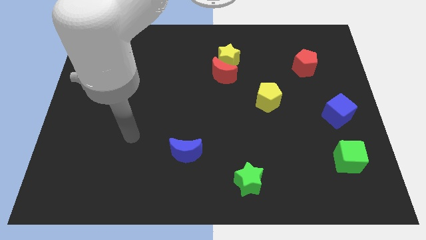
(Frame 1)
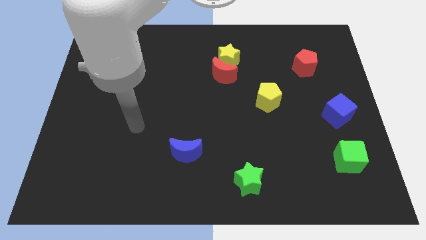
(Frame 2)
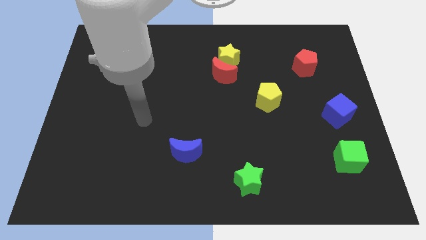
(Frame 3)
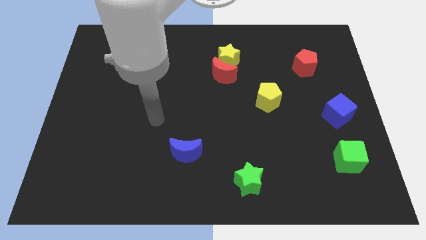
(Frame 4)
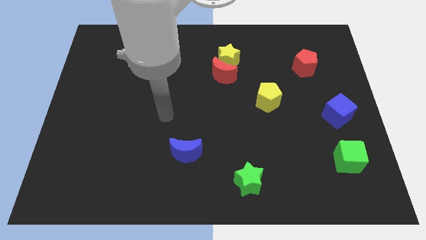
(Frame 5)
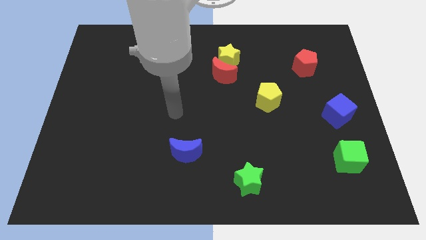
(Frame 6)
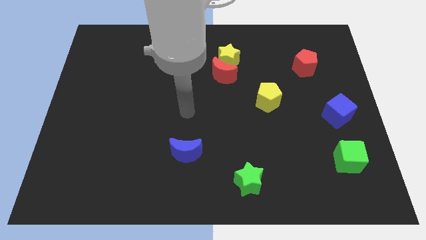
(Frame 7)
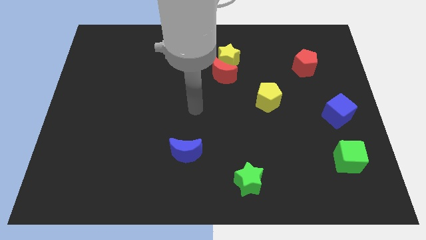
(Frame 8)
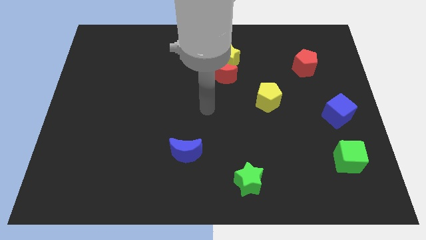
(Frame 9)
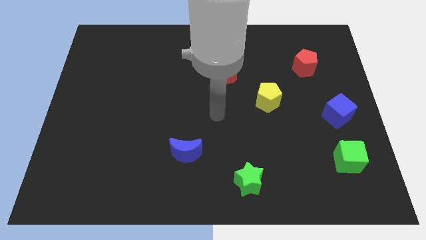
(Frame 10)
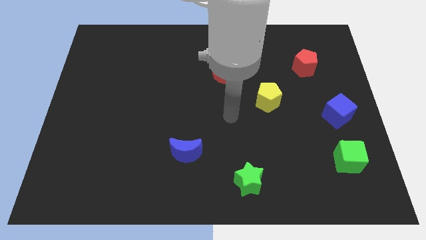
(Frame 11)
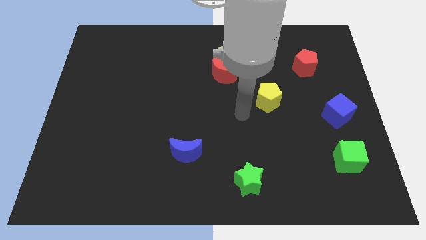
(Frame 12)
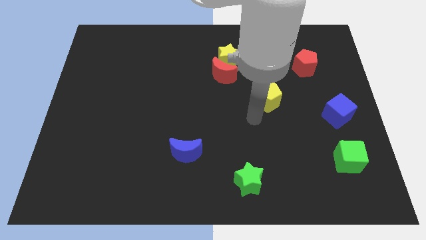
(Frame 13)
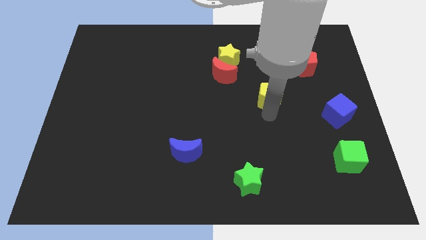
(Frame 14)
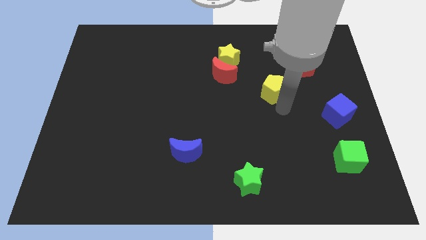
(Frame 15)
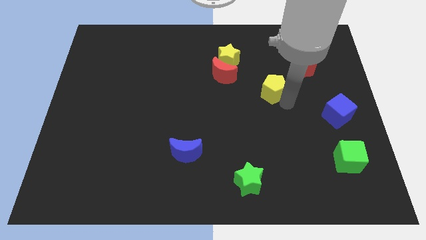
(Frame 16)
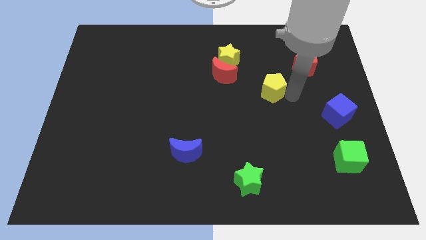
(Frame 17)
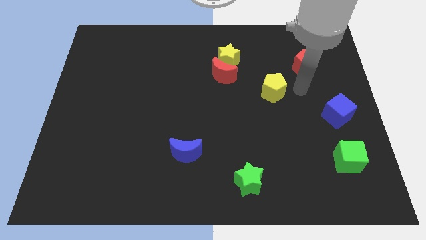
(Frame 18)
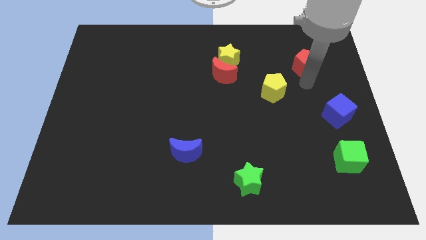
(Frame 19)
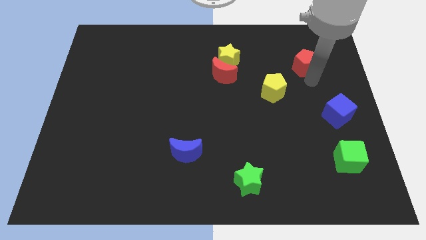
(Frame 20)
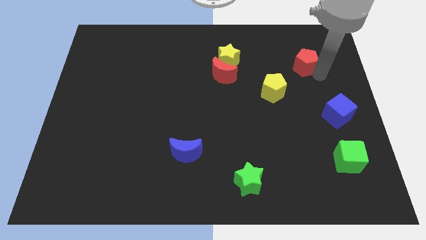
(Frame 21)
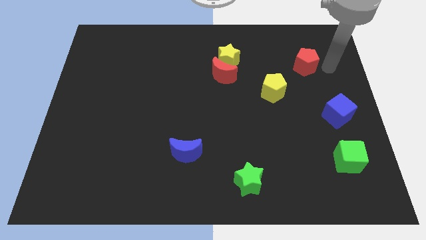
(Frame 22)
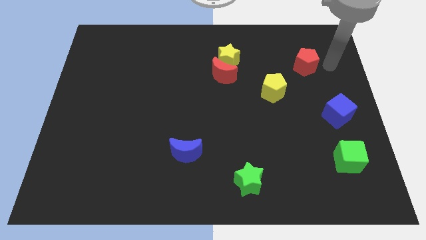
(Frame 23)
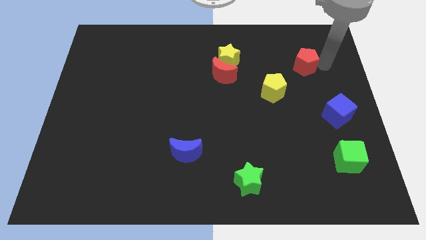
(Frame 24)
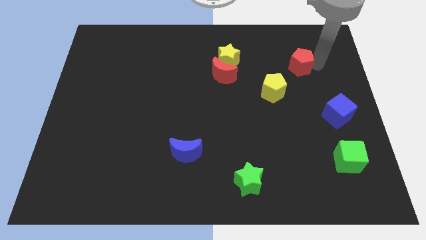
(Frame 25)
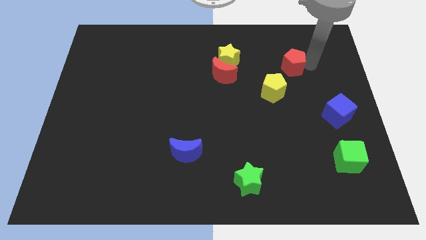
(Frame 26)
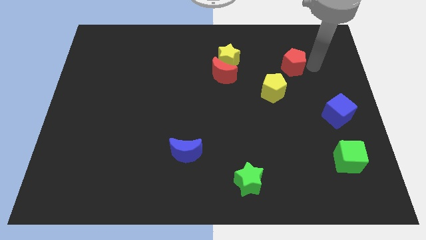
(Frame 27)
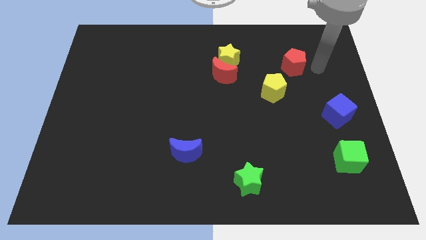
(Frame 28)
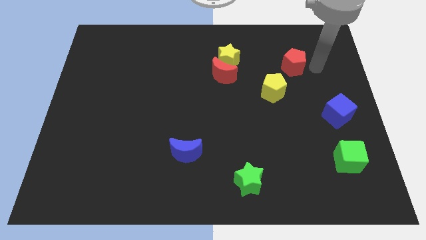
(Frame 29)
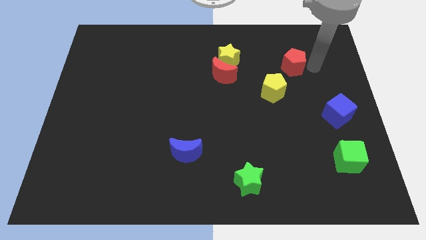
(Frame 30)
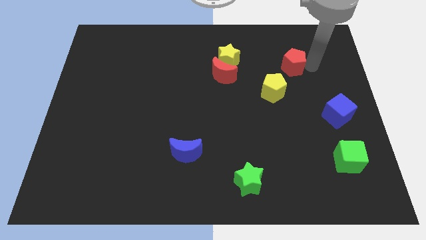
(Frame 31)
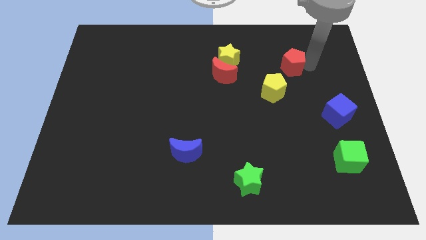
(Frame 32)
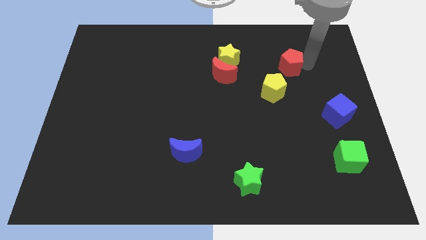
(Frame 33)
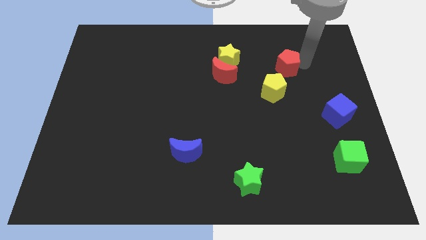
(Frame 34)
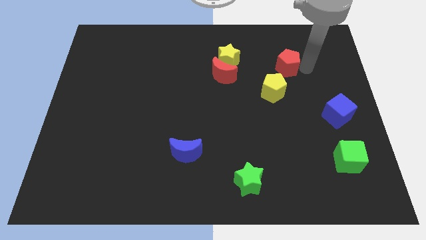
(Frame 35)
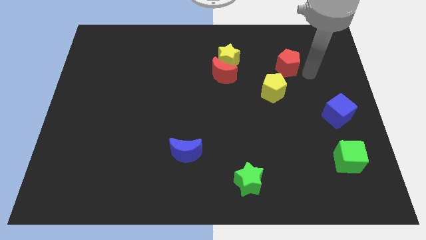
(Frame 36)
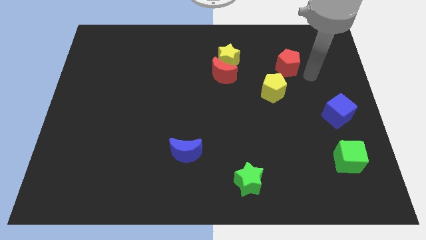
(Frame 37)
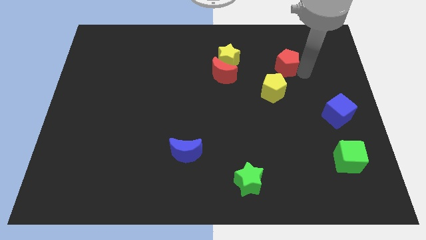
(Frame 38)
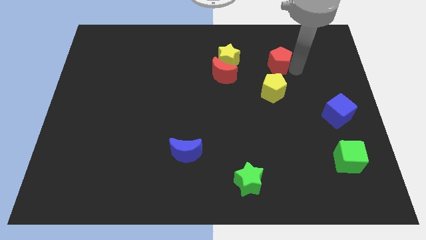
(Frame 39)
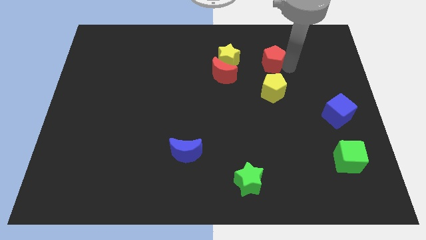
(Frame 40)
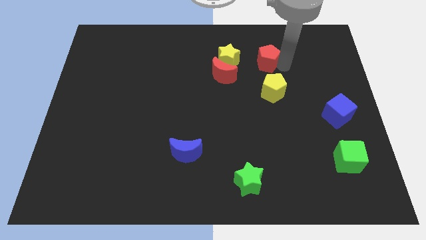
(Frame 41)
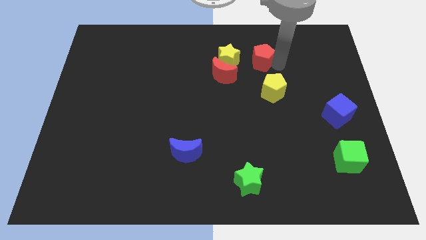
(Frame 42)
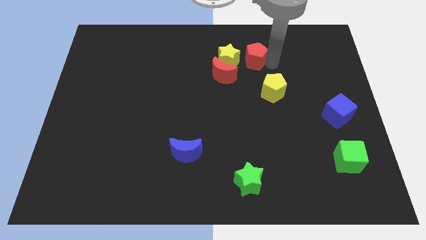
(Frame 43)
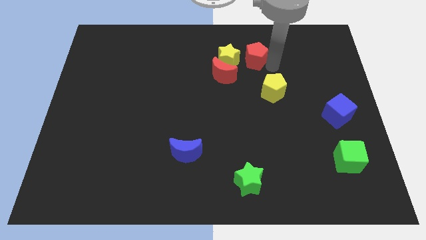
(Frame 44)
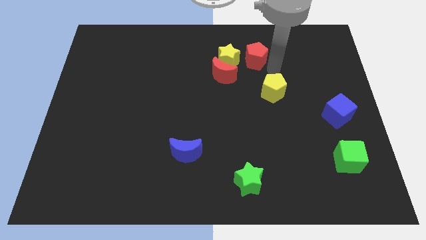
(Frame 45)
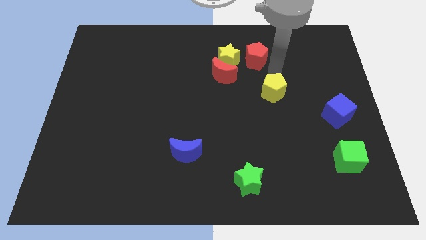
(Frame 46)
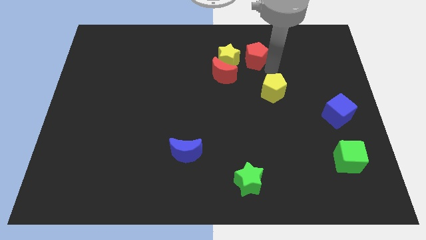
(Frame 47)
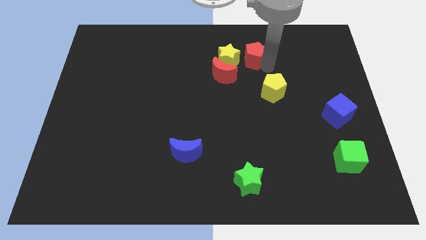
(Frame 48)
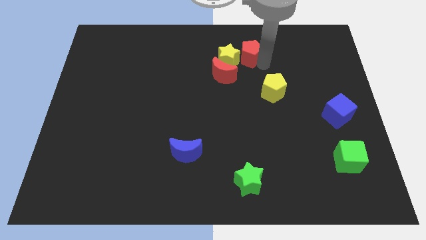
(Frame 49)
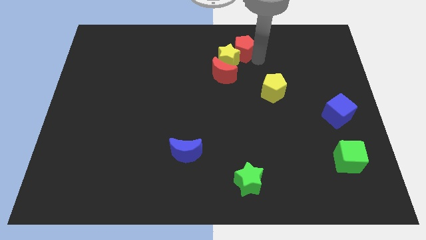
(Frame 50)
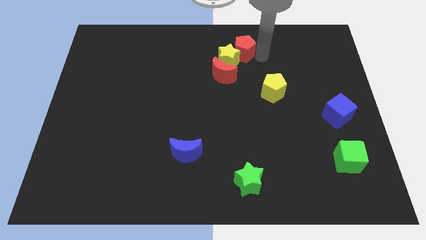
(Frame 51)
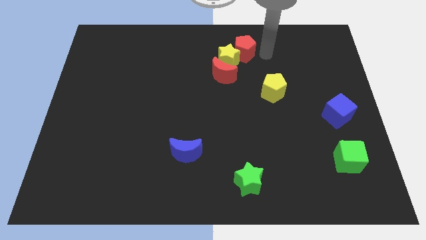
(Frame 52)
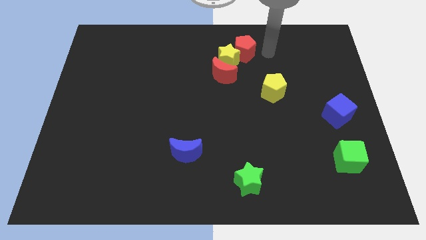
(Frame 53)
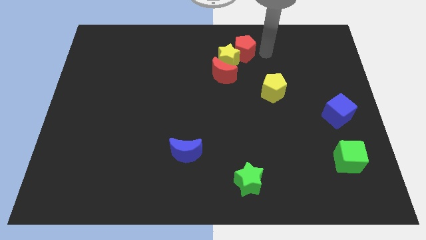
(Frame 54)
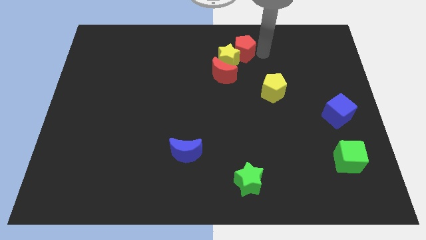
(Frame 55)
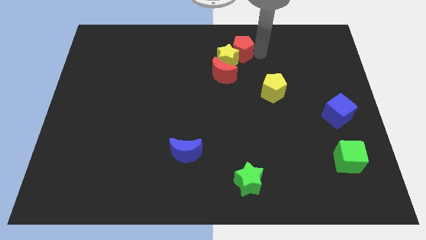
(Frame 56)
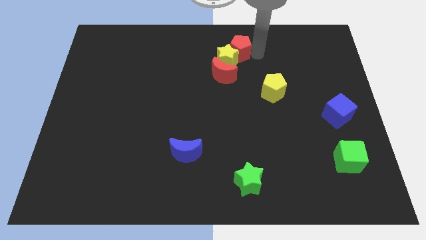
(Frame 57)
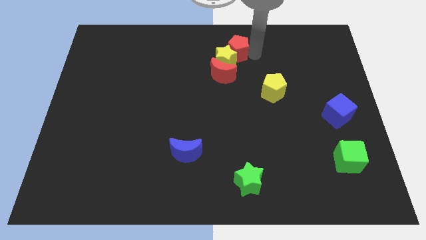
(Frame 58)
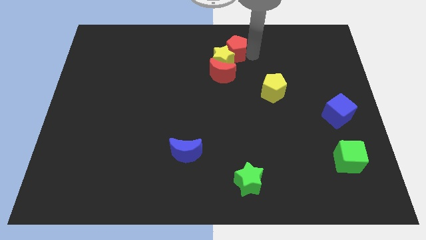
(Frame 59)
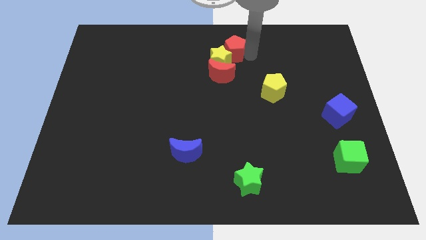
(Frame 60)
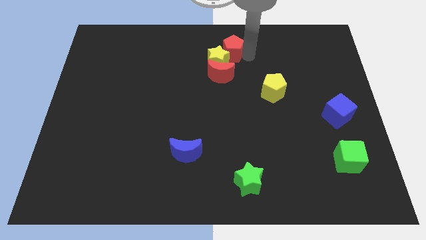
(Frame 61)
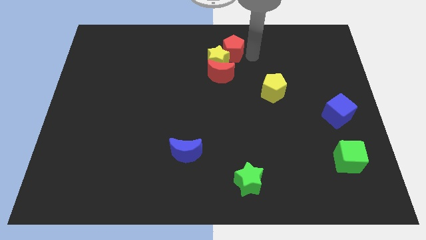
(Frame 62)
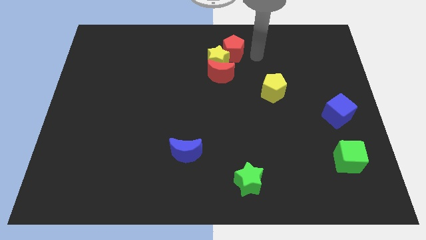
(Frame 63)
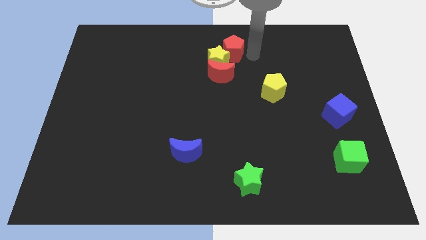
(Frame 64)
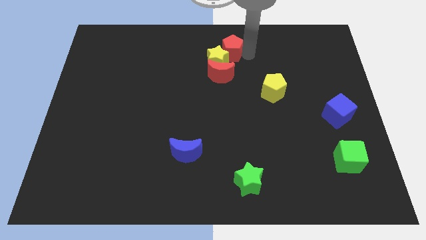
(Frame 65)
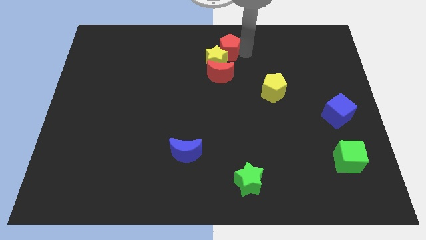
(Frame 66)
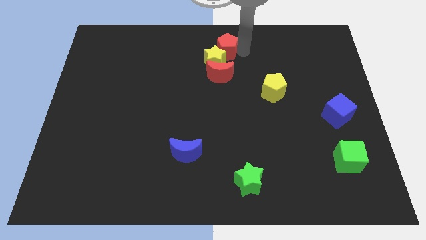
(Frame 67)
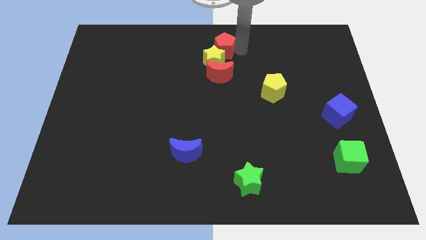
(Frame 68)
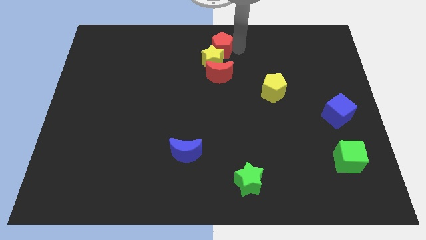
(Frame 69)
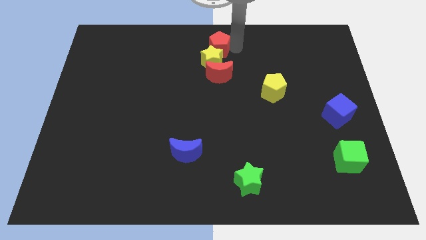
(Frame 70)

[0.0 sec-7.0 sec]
push the red pentagon to the left

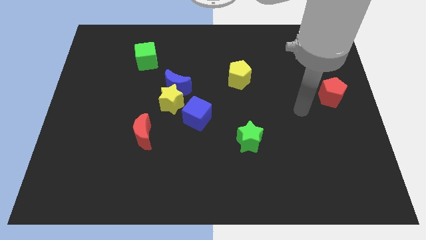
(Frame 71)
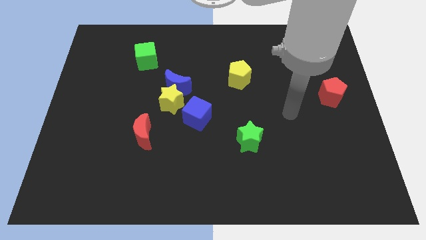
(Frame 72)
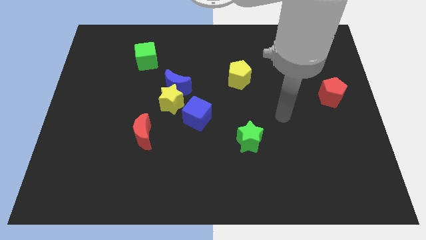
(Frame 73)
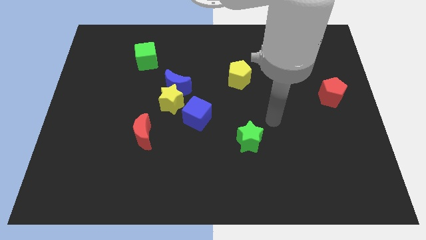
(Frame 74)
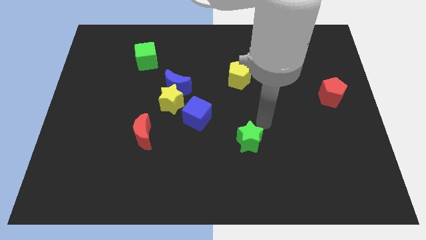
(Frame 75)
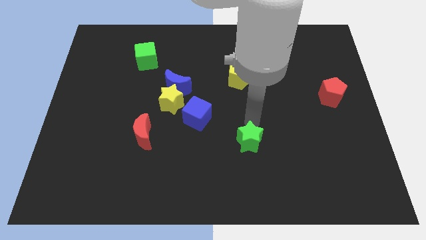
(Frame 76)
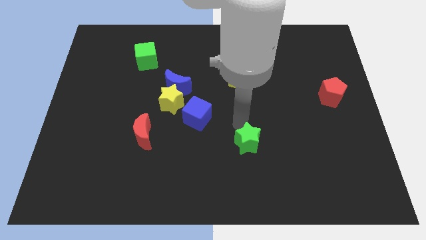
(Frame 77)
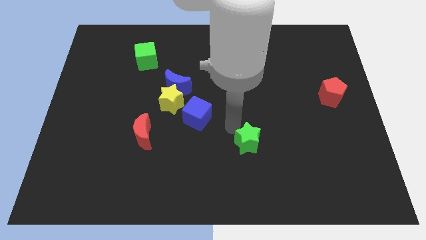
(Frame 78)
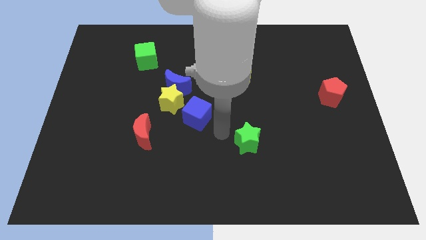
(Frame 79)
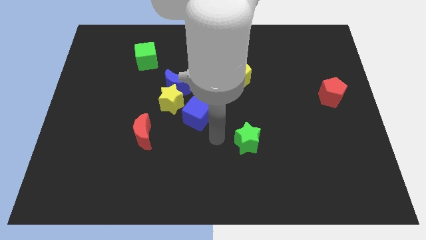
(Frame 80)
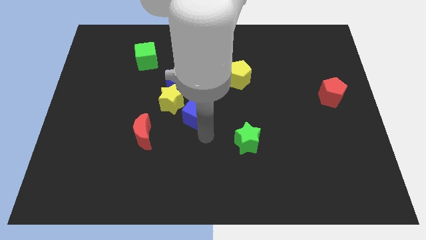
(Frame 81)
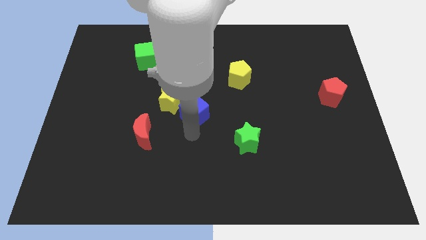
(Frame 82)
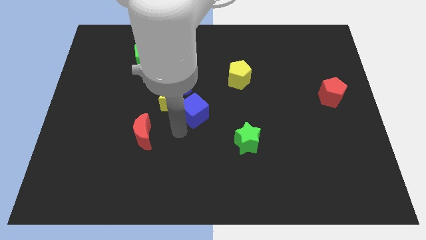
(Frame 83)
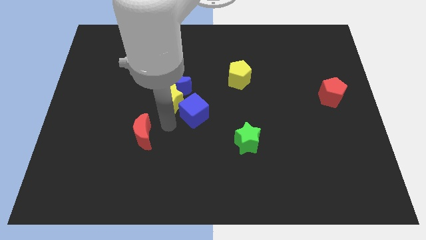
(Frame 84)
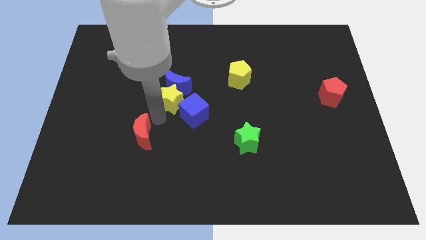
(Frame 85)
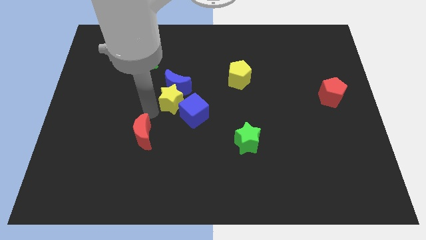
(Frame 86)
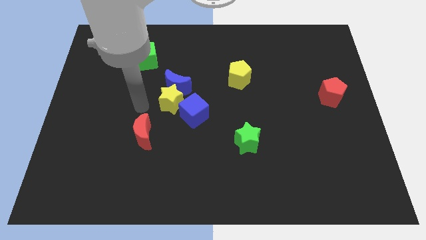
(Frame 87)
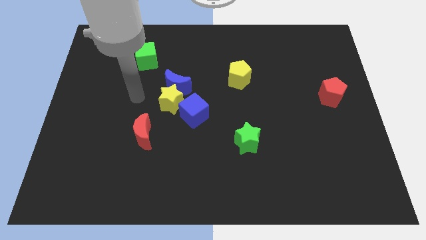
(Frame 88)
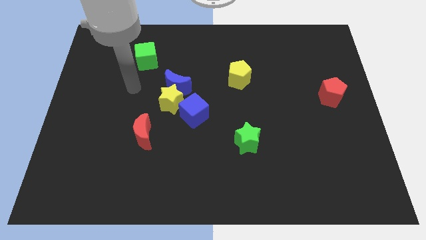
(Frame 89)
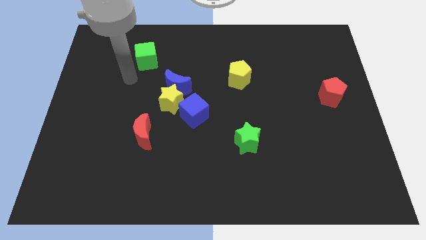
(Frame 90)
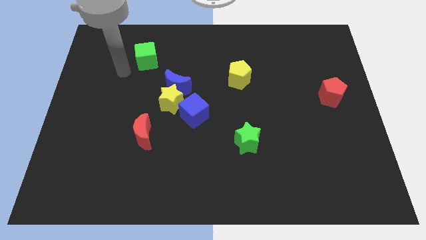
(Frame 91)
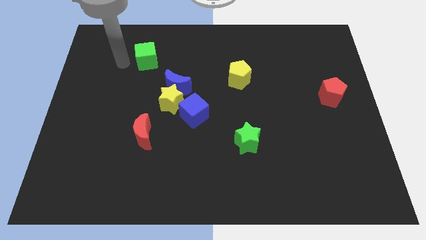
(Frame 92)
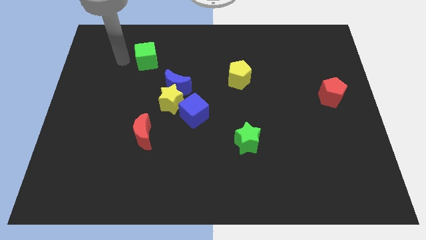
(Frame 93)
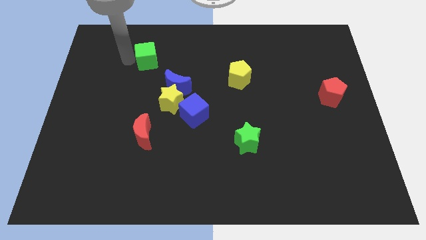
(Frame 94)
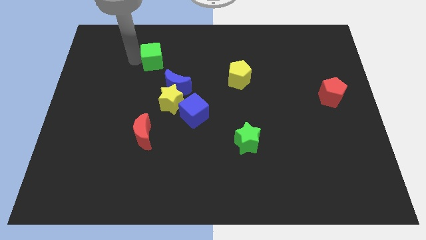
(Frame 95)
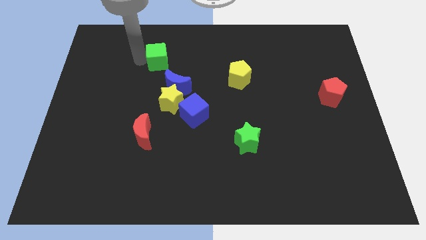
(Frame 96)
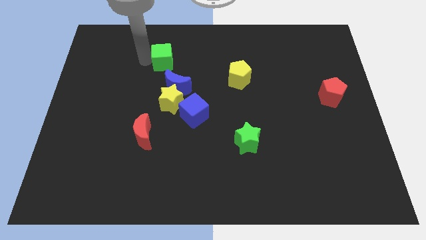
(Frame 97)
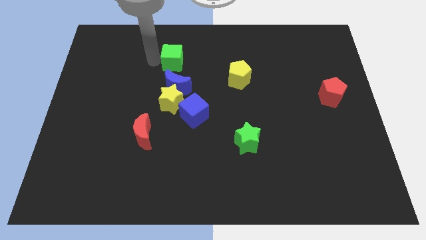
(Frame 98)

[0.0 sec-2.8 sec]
slightly move the green cube right
